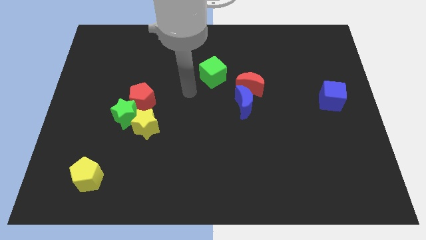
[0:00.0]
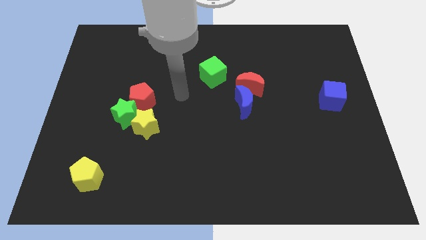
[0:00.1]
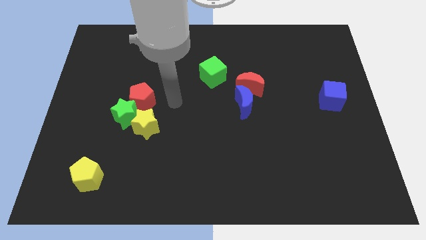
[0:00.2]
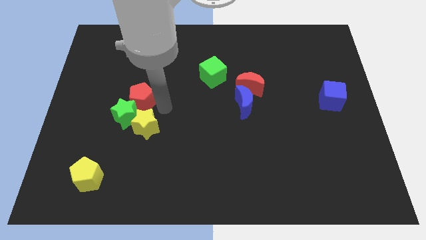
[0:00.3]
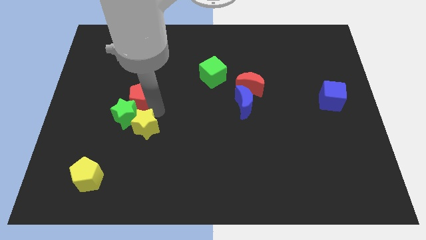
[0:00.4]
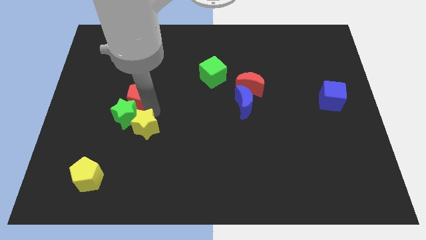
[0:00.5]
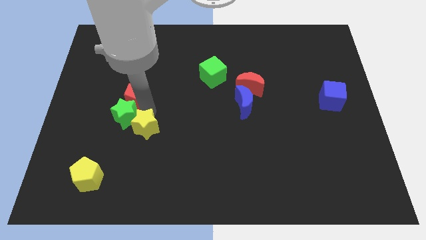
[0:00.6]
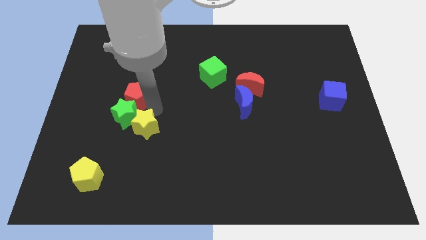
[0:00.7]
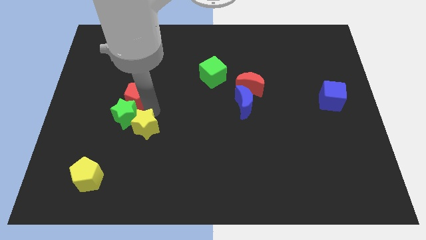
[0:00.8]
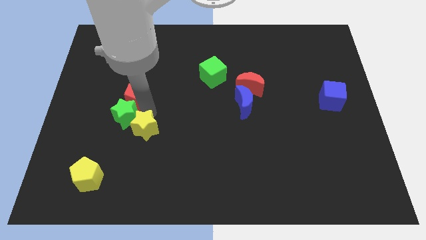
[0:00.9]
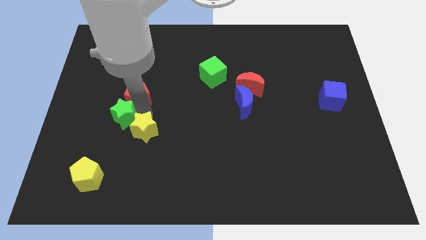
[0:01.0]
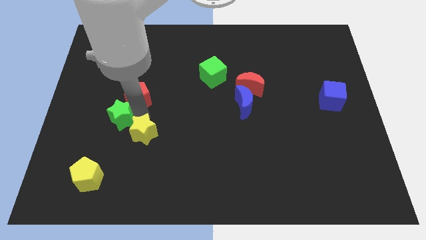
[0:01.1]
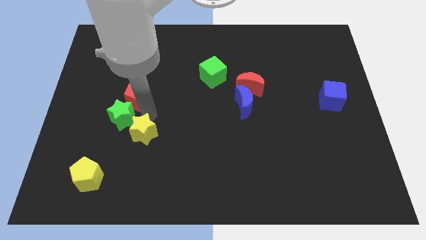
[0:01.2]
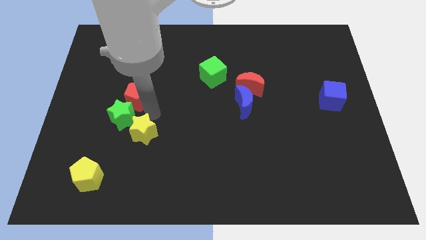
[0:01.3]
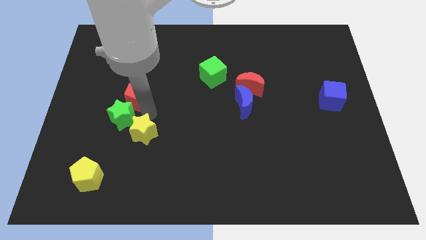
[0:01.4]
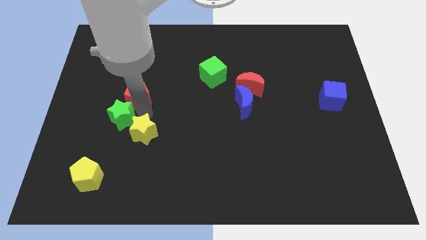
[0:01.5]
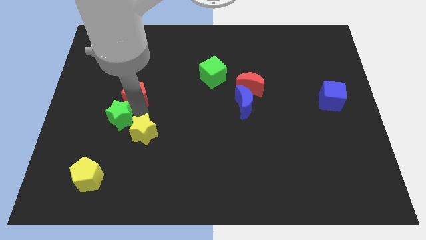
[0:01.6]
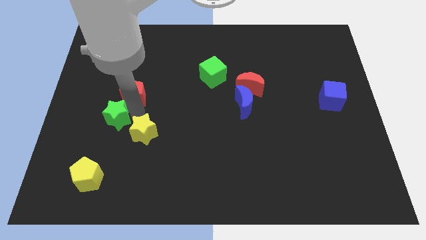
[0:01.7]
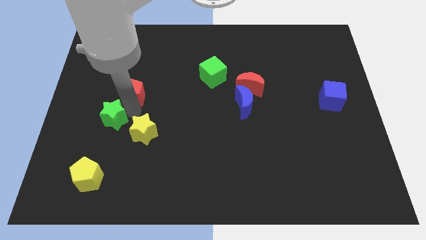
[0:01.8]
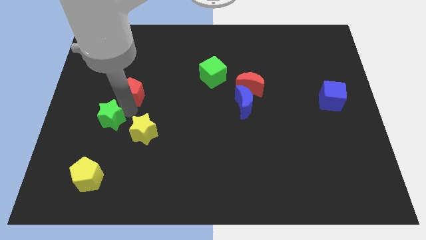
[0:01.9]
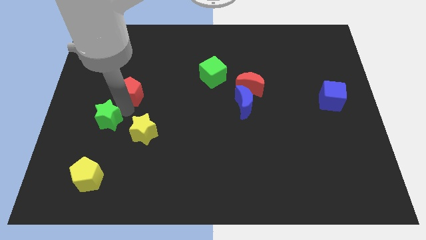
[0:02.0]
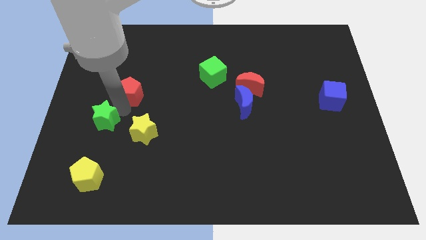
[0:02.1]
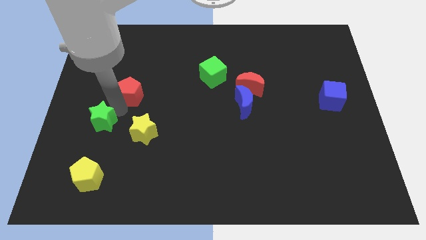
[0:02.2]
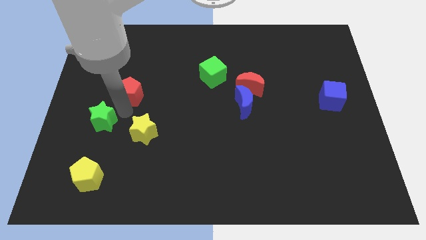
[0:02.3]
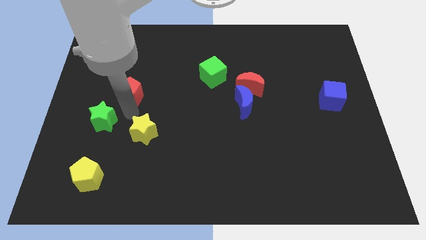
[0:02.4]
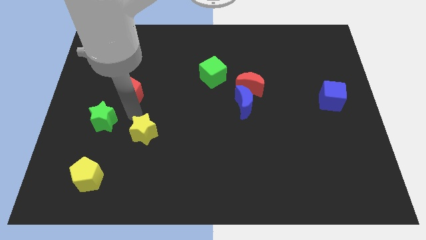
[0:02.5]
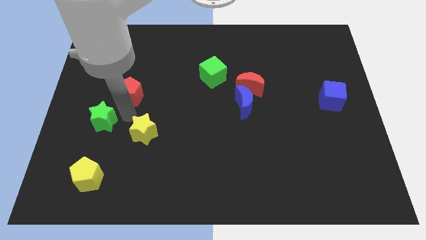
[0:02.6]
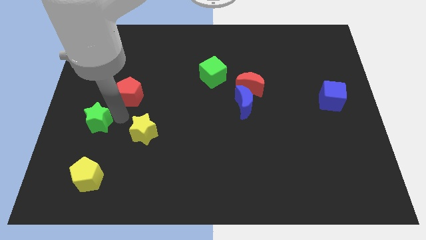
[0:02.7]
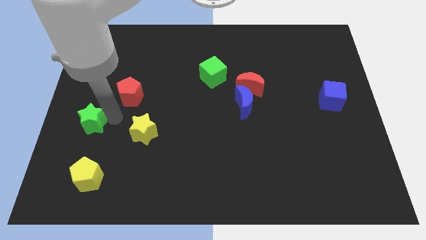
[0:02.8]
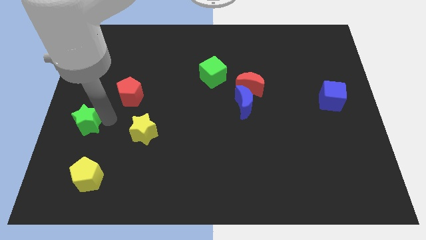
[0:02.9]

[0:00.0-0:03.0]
separate the green star from the yellow star and red pentagon

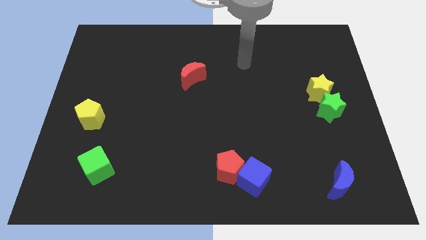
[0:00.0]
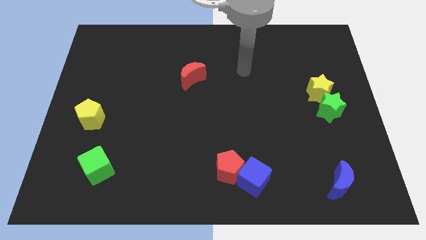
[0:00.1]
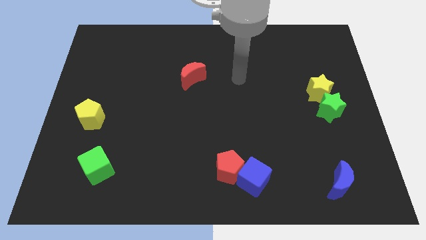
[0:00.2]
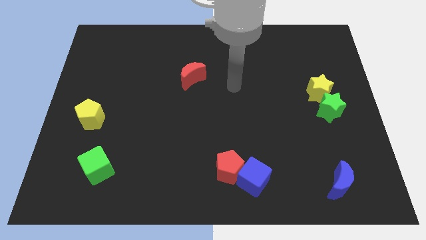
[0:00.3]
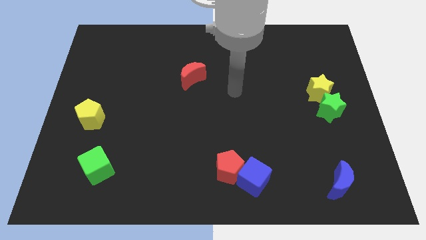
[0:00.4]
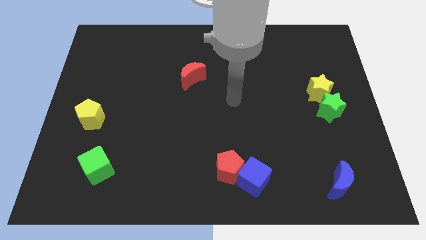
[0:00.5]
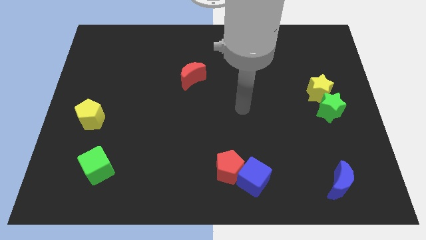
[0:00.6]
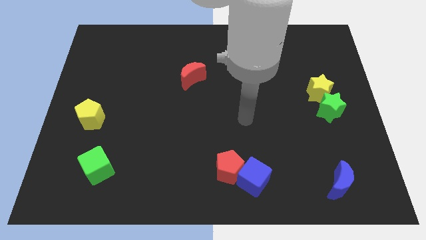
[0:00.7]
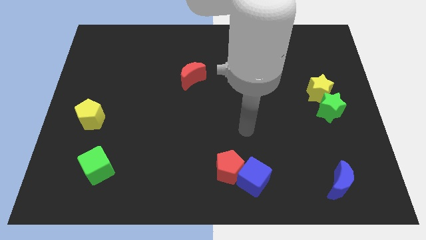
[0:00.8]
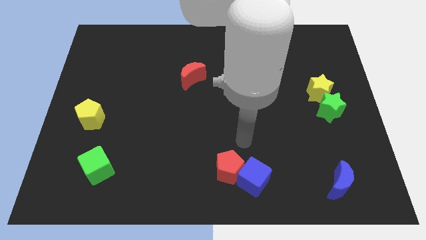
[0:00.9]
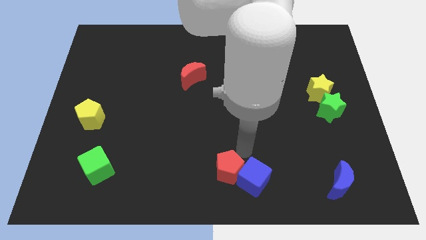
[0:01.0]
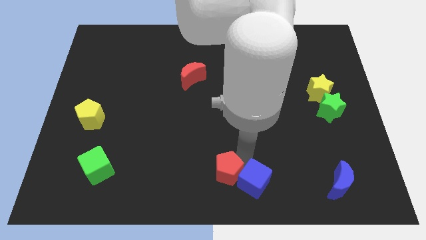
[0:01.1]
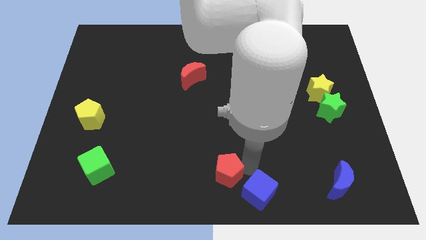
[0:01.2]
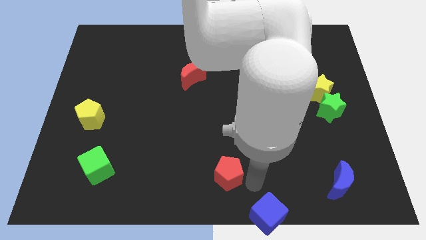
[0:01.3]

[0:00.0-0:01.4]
separate the red pentagon from the blue cube

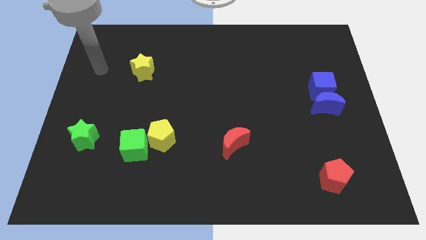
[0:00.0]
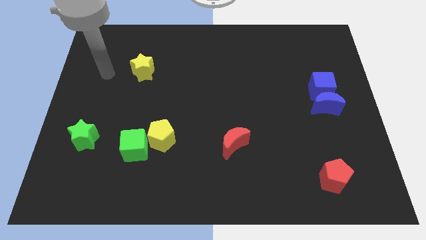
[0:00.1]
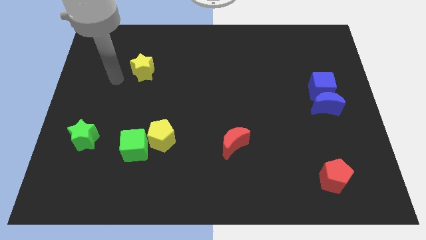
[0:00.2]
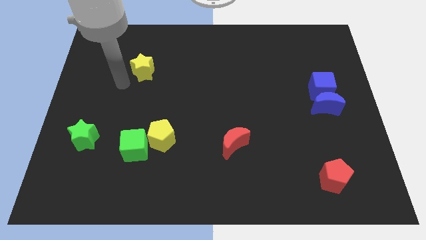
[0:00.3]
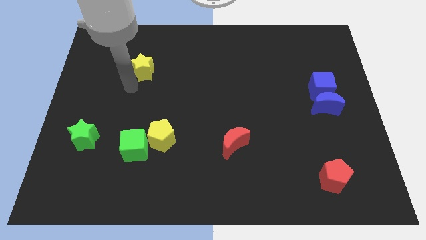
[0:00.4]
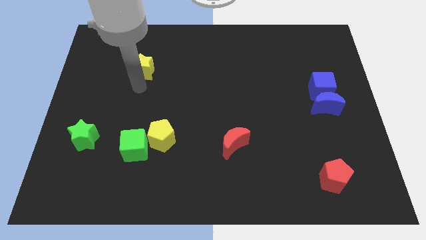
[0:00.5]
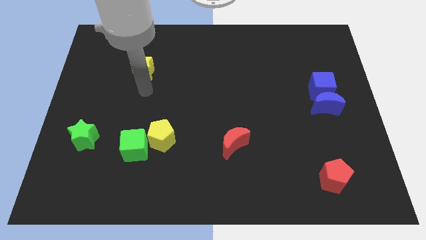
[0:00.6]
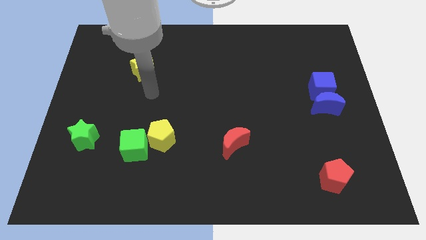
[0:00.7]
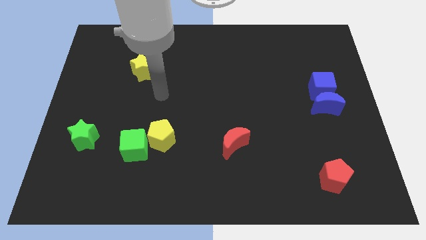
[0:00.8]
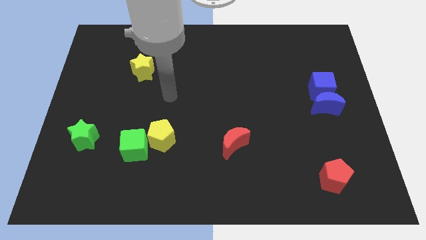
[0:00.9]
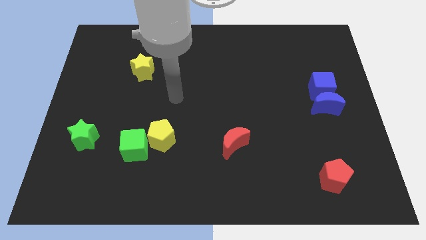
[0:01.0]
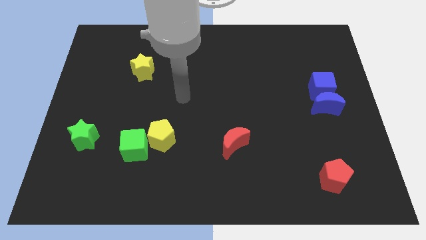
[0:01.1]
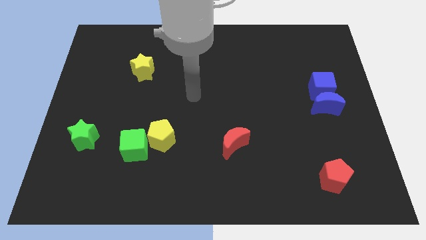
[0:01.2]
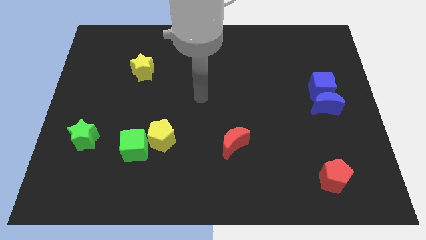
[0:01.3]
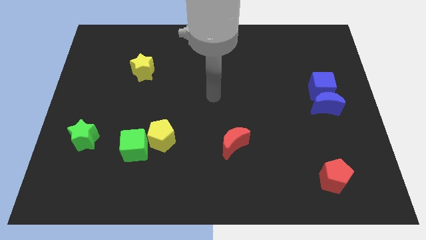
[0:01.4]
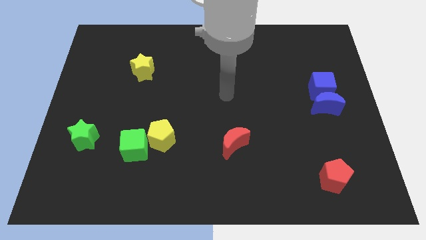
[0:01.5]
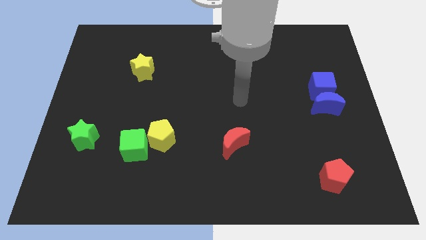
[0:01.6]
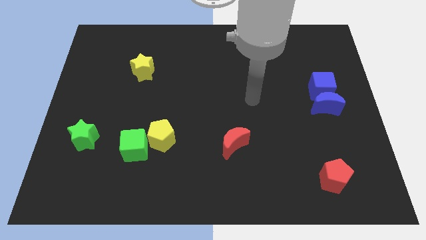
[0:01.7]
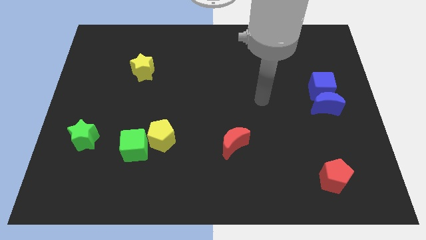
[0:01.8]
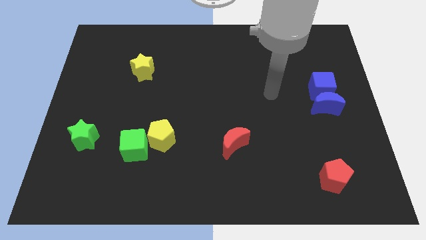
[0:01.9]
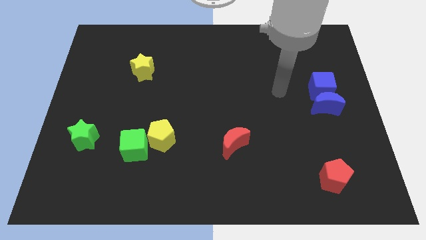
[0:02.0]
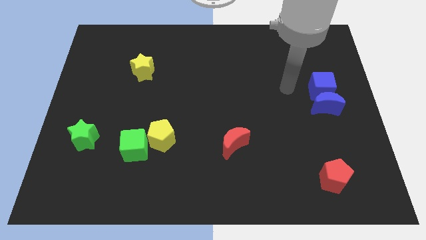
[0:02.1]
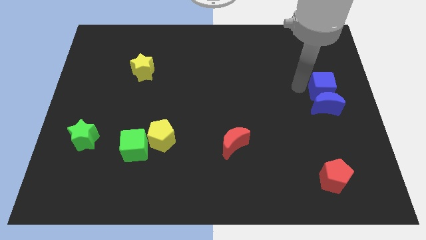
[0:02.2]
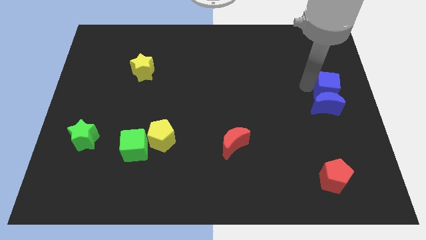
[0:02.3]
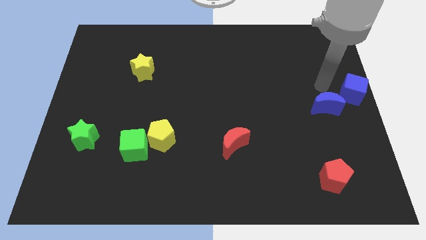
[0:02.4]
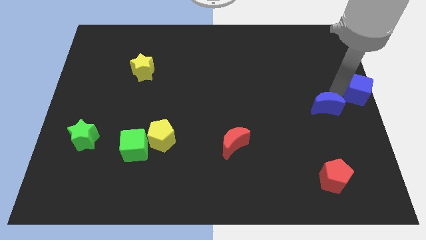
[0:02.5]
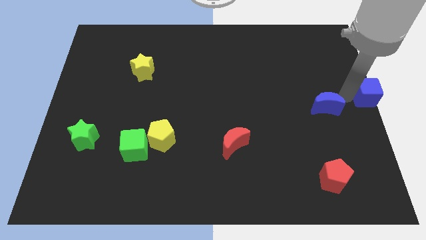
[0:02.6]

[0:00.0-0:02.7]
move the blue moon away from the blue cube

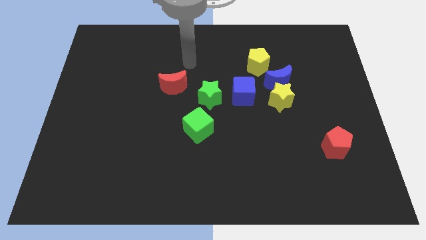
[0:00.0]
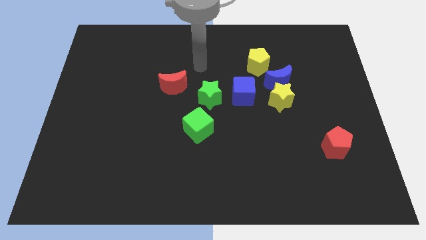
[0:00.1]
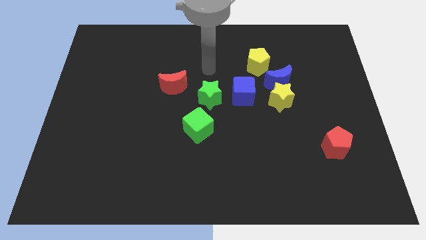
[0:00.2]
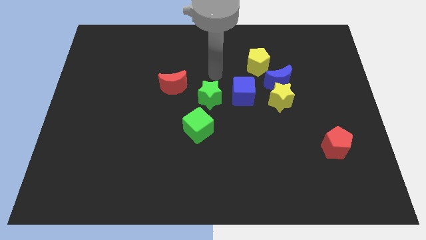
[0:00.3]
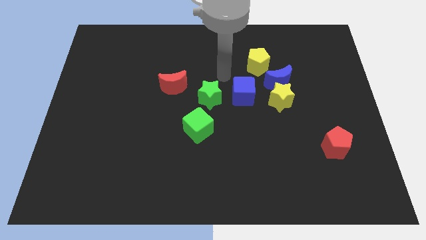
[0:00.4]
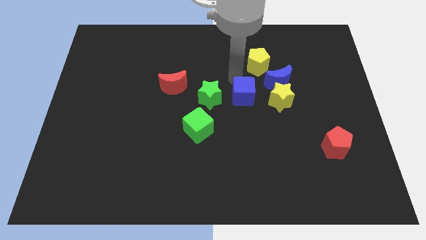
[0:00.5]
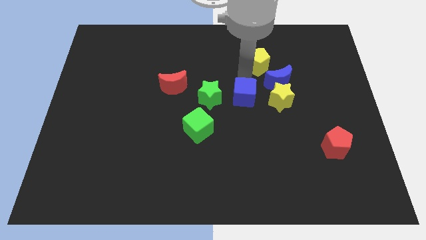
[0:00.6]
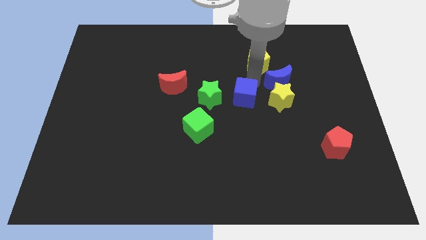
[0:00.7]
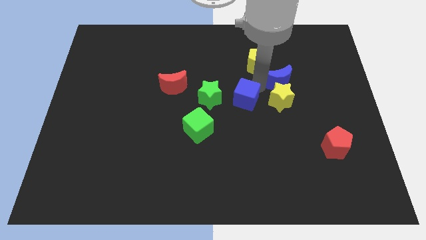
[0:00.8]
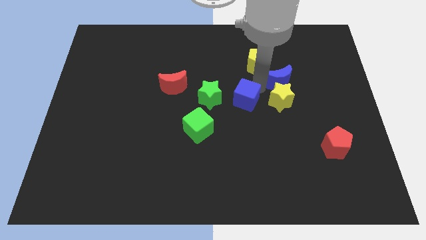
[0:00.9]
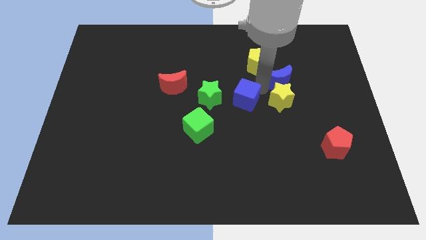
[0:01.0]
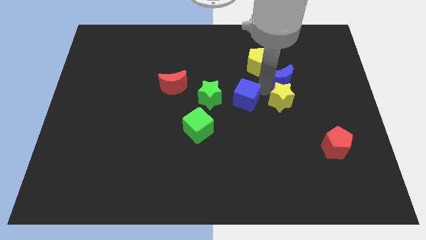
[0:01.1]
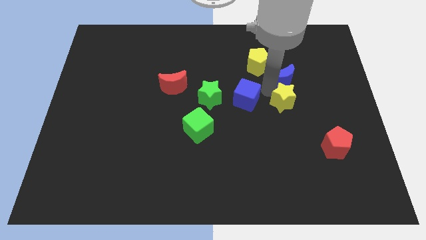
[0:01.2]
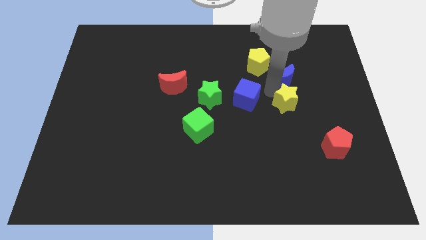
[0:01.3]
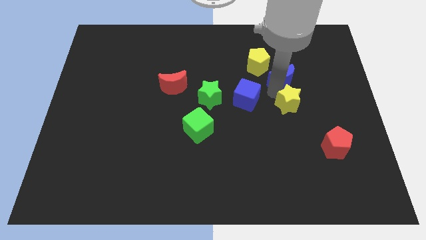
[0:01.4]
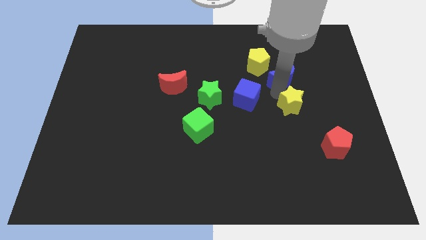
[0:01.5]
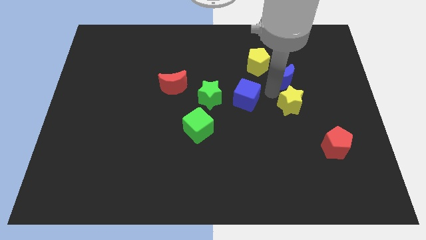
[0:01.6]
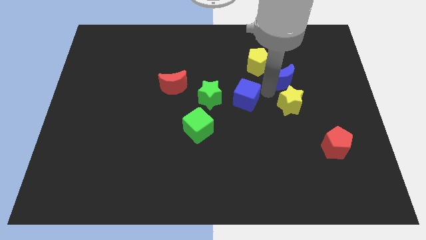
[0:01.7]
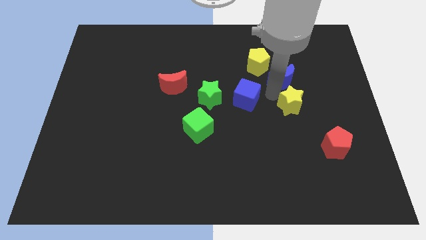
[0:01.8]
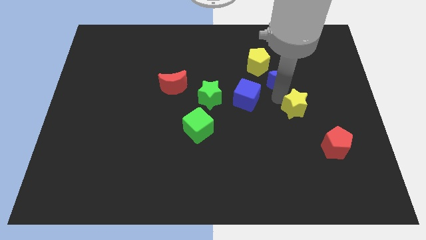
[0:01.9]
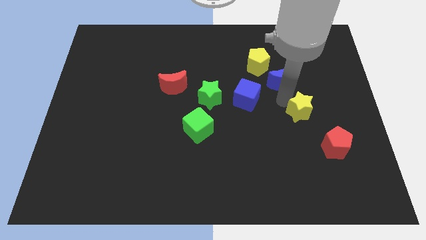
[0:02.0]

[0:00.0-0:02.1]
move the yellow star away from the blue moon and blue cube
